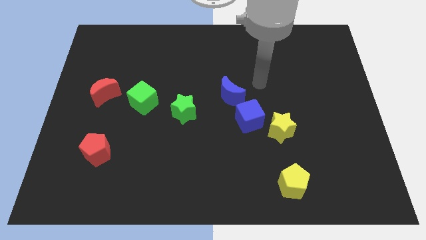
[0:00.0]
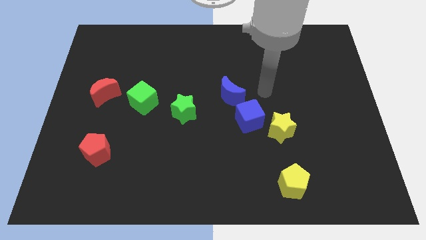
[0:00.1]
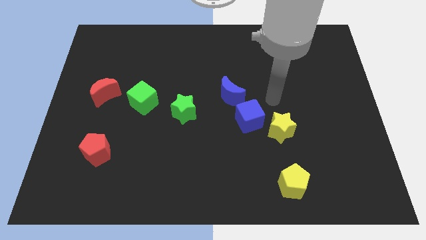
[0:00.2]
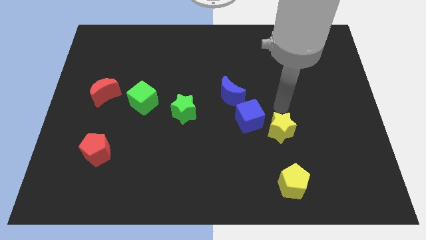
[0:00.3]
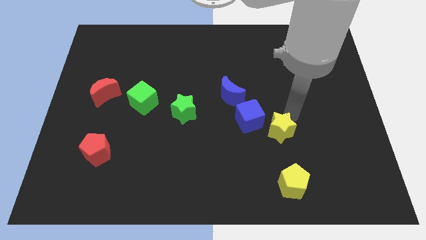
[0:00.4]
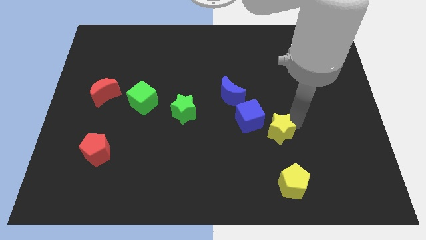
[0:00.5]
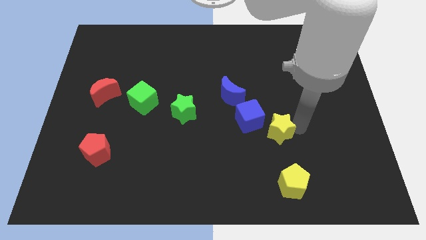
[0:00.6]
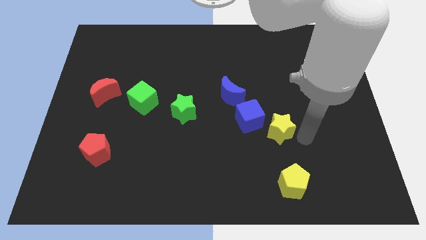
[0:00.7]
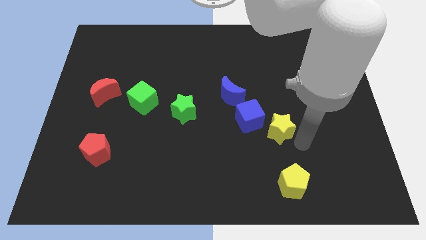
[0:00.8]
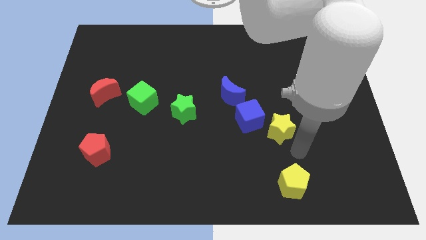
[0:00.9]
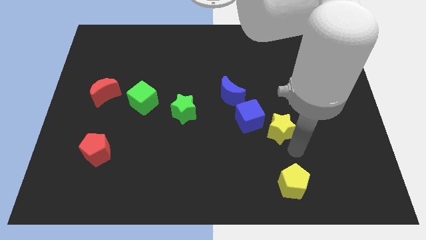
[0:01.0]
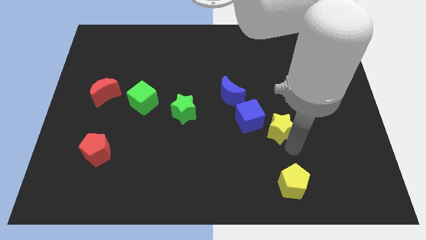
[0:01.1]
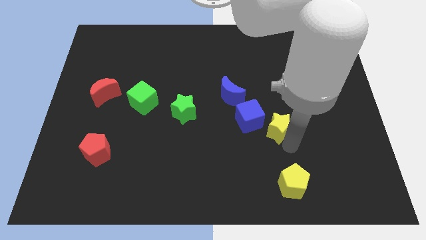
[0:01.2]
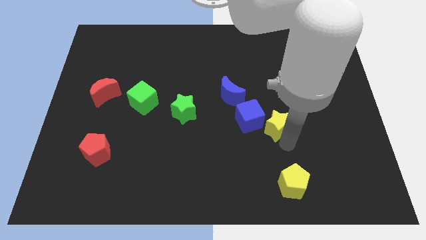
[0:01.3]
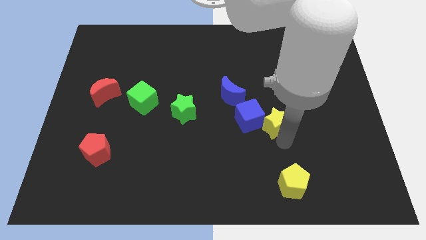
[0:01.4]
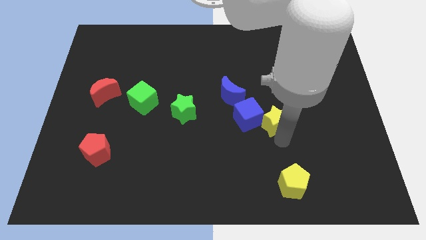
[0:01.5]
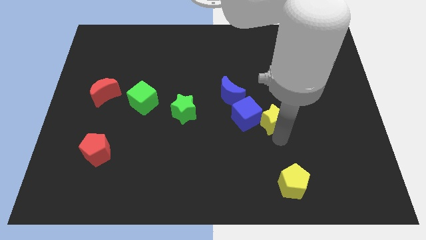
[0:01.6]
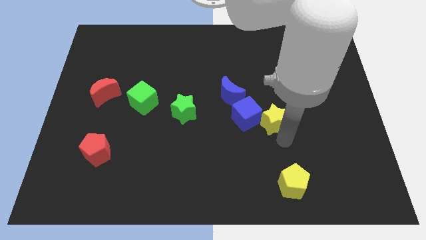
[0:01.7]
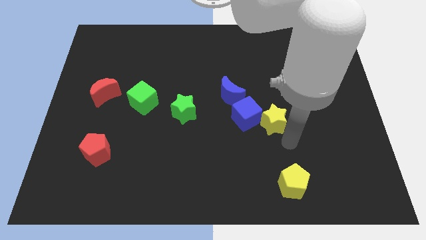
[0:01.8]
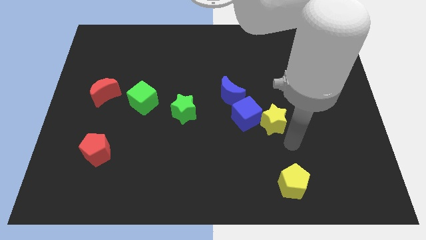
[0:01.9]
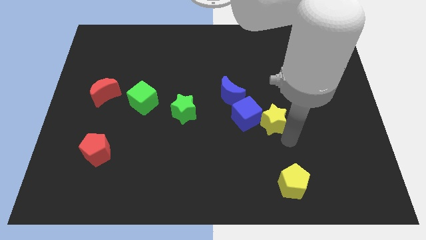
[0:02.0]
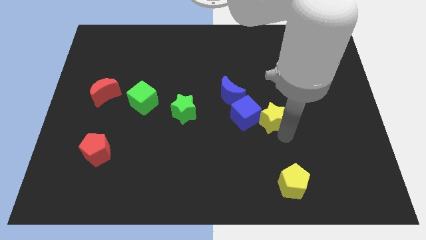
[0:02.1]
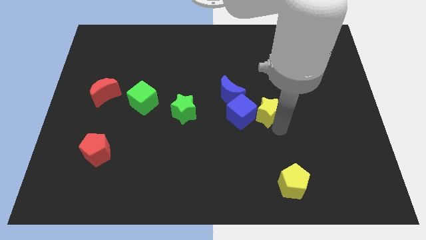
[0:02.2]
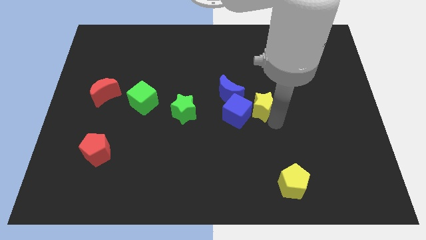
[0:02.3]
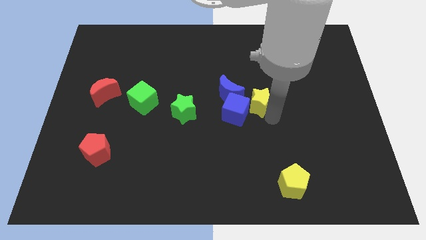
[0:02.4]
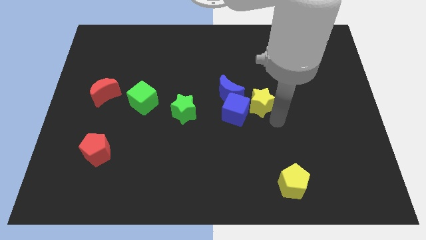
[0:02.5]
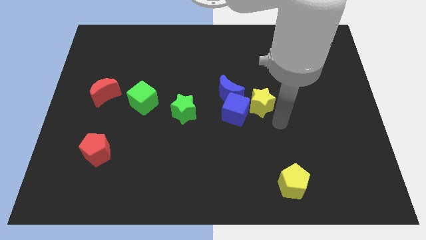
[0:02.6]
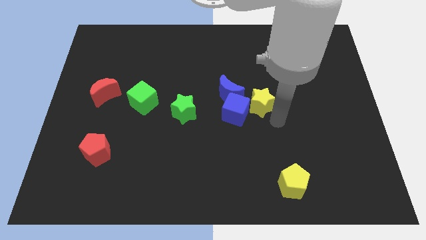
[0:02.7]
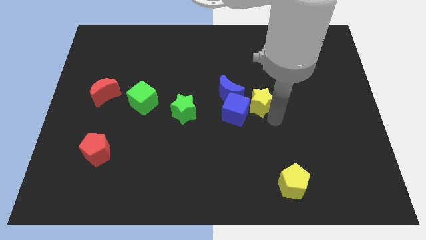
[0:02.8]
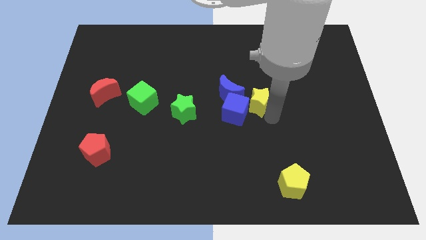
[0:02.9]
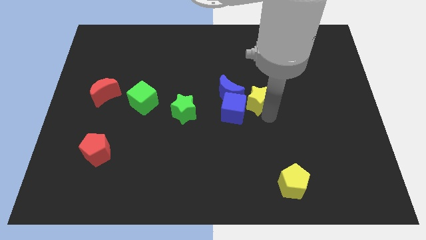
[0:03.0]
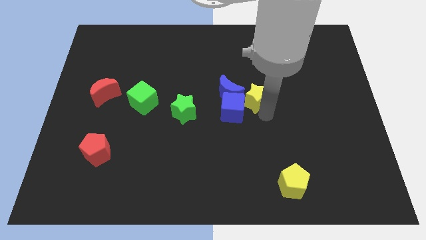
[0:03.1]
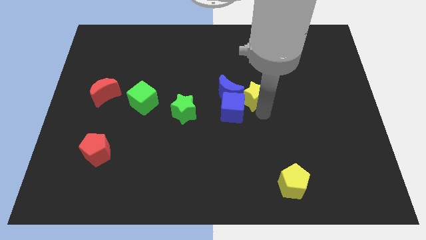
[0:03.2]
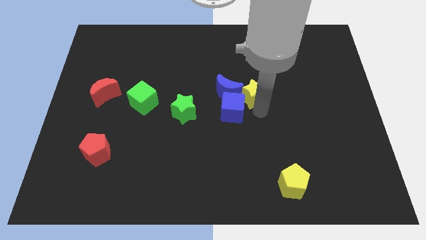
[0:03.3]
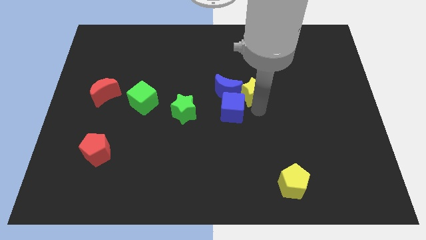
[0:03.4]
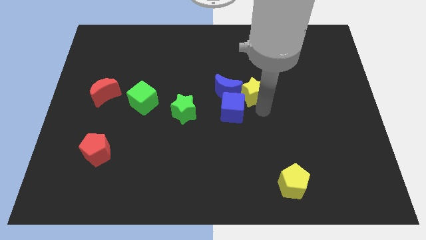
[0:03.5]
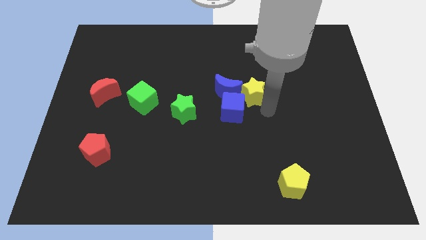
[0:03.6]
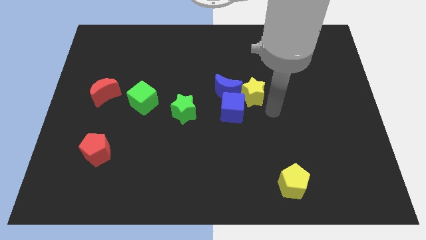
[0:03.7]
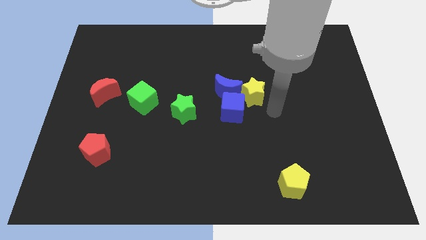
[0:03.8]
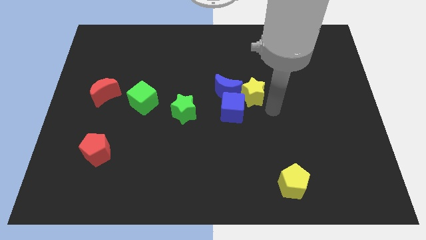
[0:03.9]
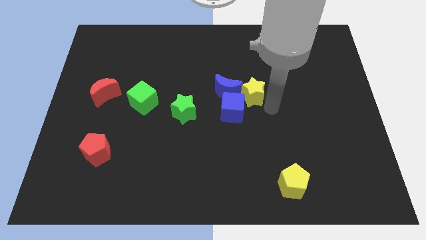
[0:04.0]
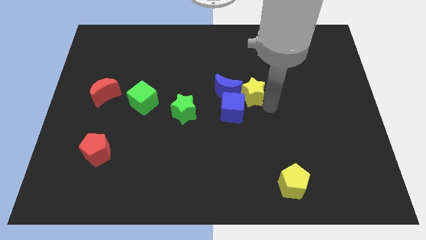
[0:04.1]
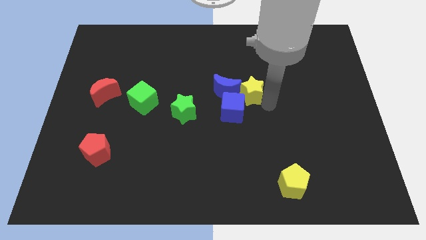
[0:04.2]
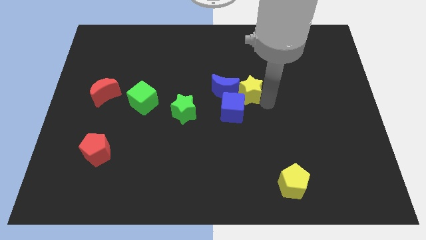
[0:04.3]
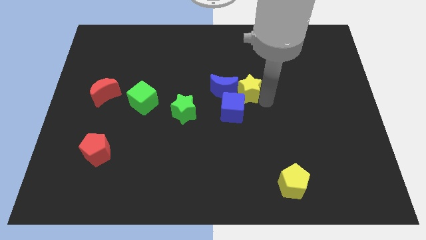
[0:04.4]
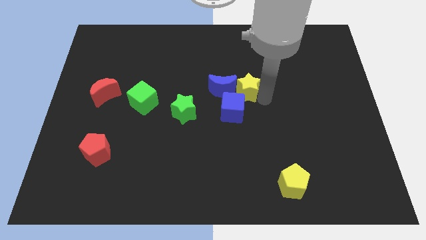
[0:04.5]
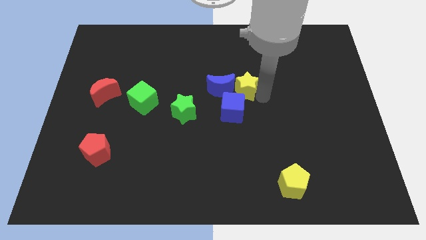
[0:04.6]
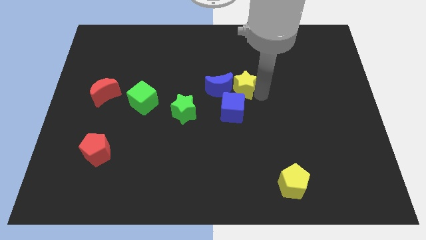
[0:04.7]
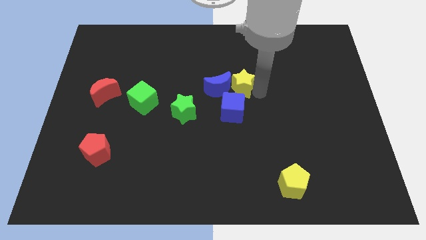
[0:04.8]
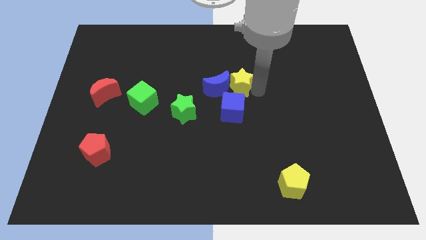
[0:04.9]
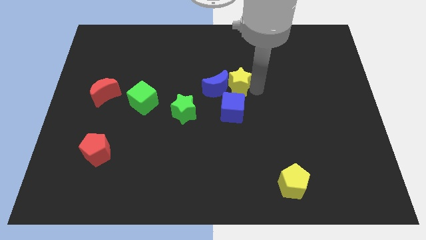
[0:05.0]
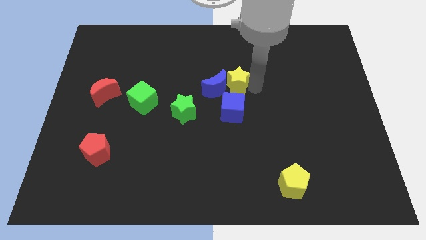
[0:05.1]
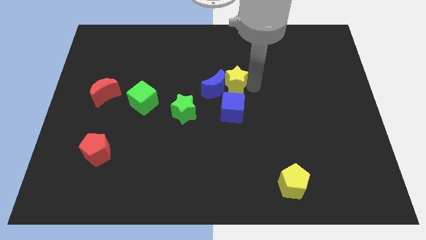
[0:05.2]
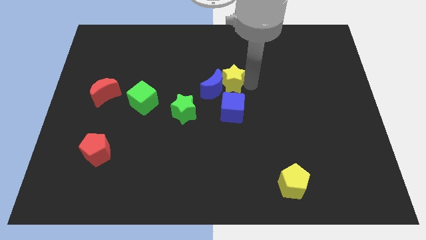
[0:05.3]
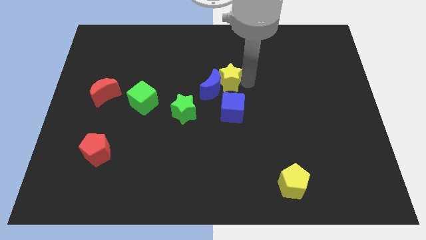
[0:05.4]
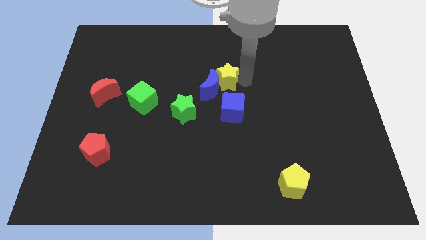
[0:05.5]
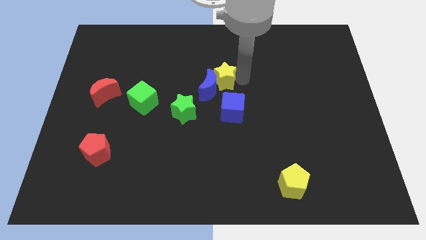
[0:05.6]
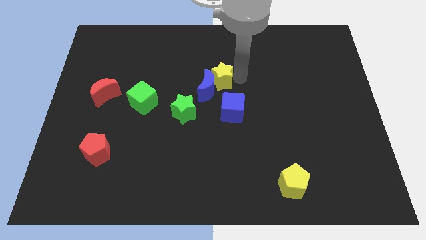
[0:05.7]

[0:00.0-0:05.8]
push the yellow star diagonally up and to the left

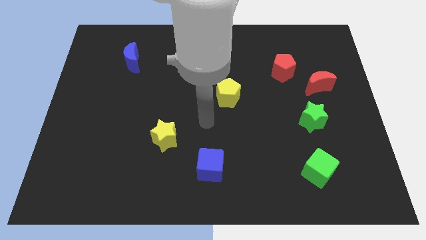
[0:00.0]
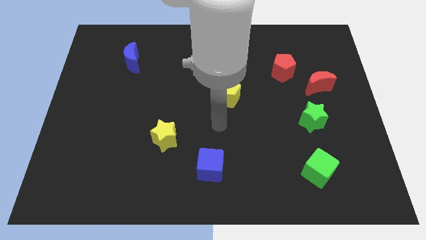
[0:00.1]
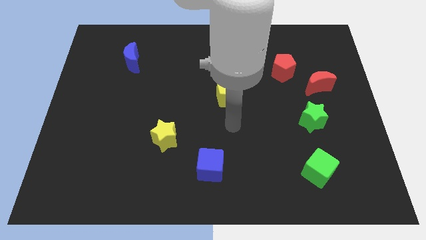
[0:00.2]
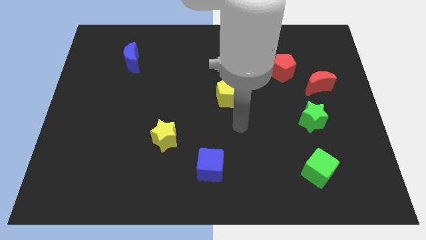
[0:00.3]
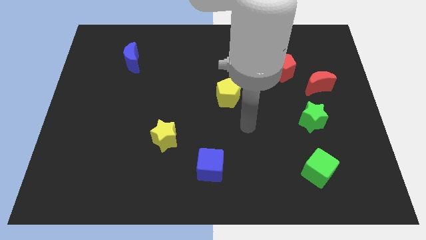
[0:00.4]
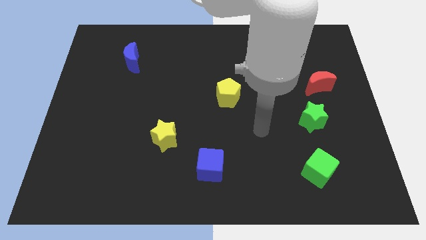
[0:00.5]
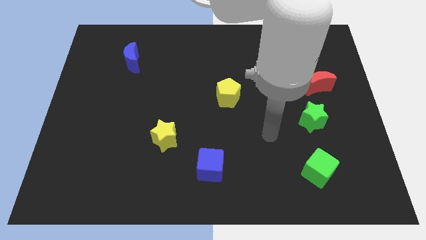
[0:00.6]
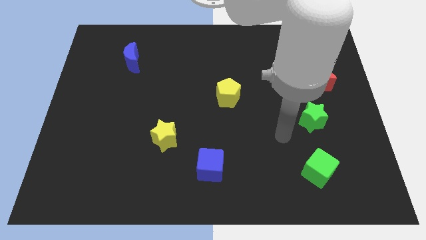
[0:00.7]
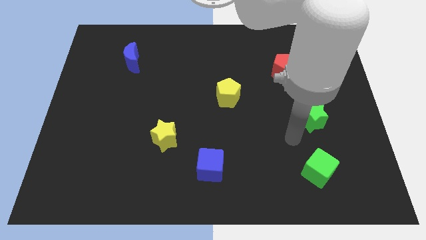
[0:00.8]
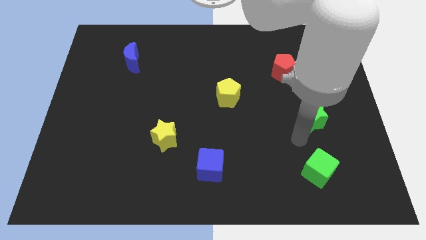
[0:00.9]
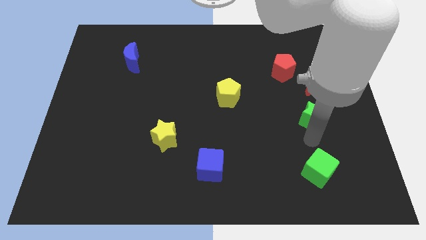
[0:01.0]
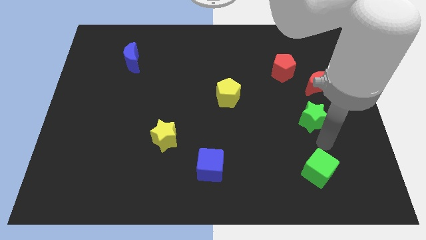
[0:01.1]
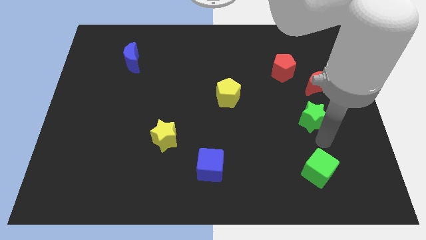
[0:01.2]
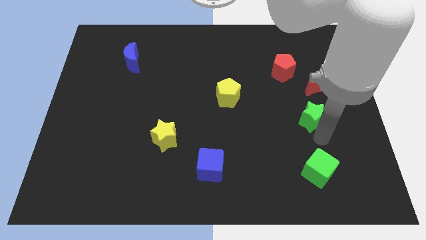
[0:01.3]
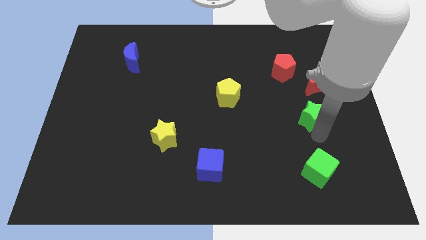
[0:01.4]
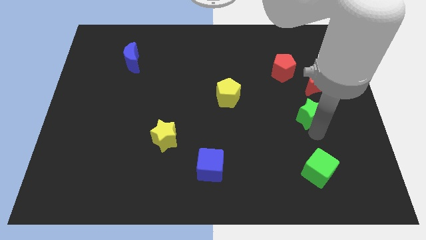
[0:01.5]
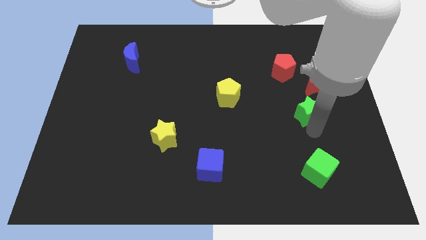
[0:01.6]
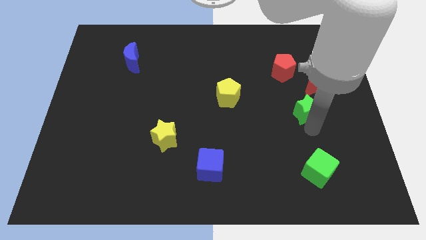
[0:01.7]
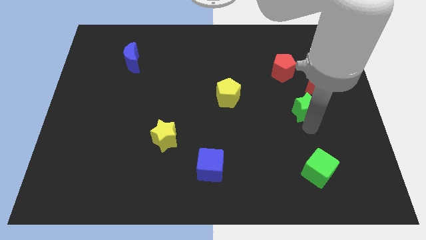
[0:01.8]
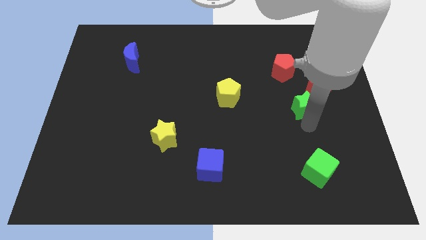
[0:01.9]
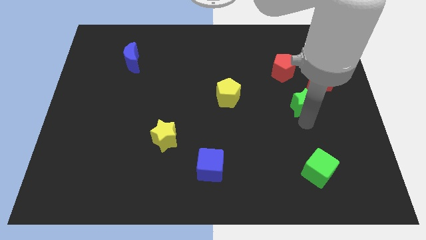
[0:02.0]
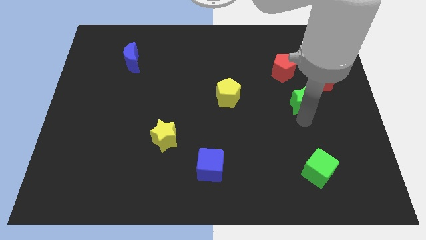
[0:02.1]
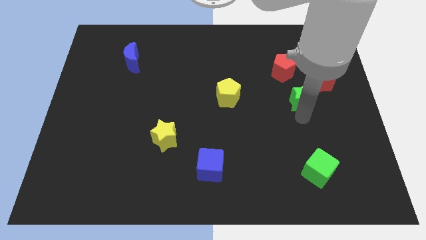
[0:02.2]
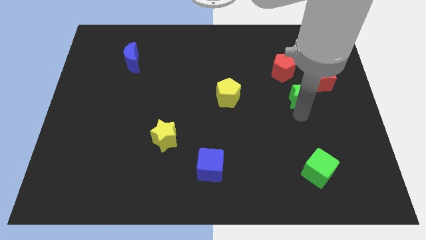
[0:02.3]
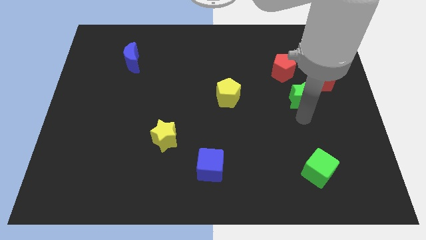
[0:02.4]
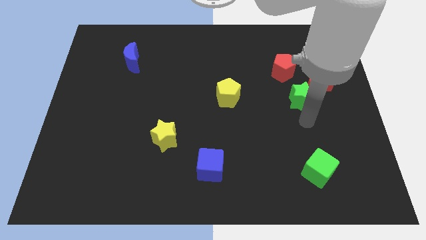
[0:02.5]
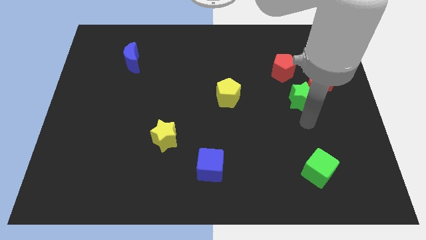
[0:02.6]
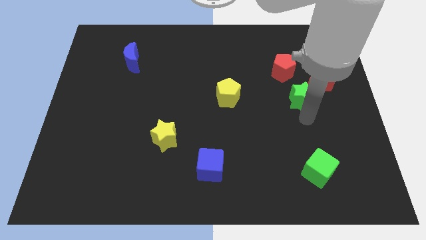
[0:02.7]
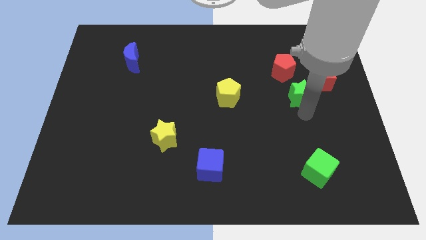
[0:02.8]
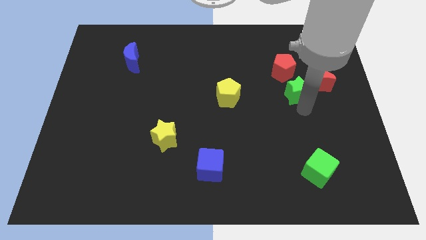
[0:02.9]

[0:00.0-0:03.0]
slightly slide the green star upwards
